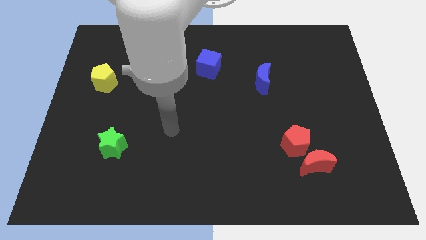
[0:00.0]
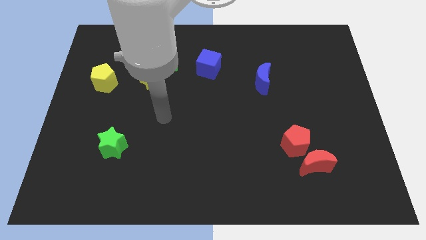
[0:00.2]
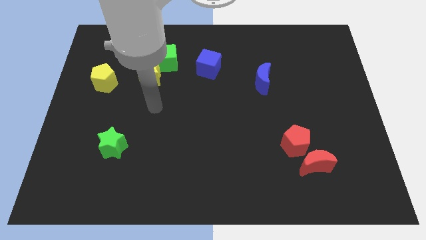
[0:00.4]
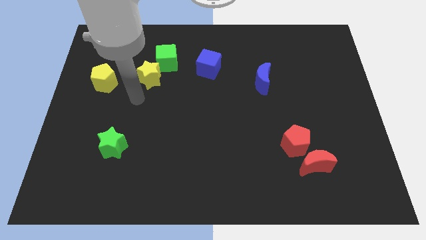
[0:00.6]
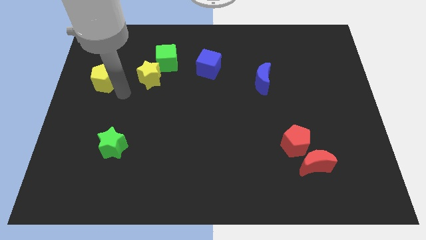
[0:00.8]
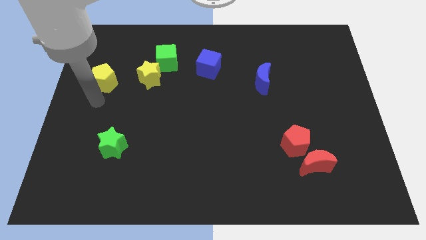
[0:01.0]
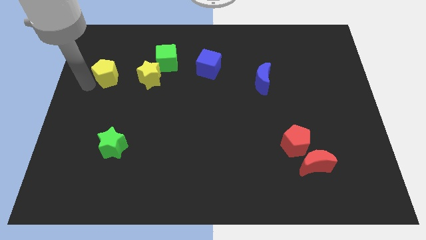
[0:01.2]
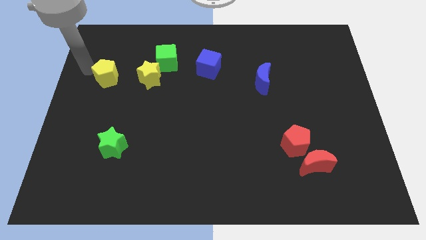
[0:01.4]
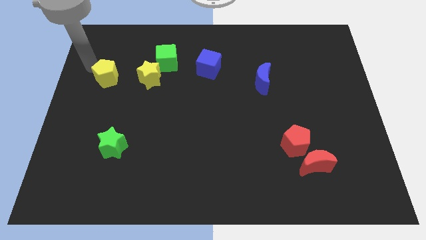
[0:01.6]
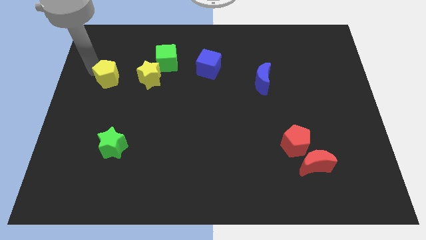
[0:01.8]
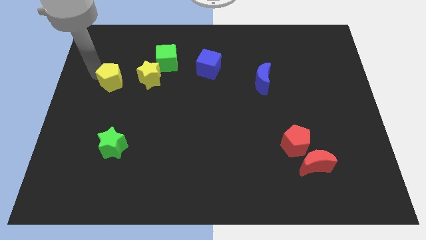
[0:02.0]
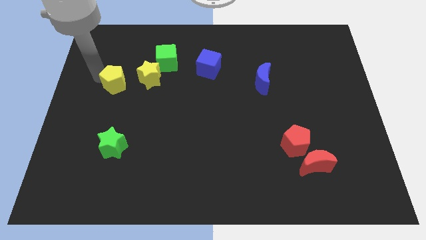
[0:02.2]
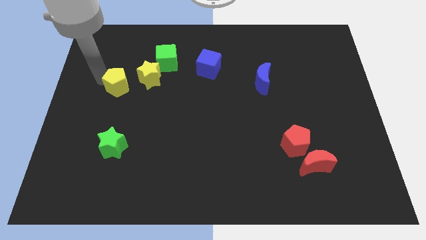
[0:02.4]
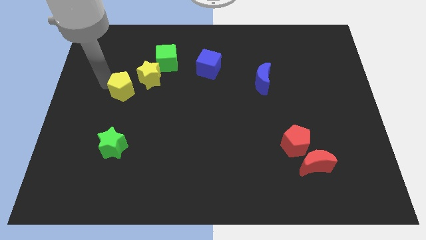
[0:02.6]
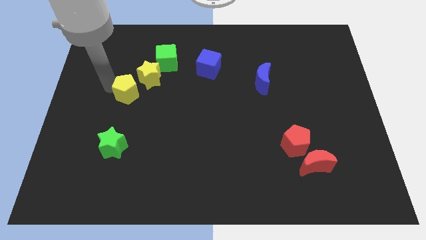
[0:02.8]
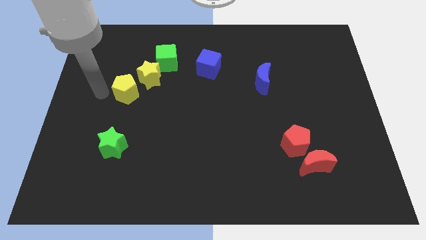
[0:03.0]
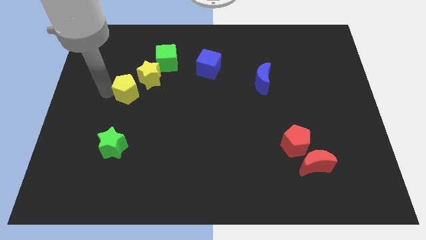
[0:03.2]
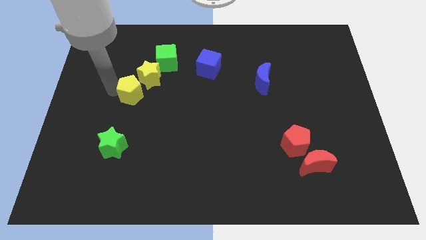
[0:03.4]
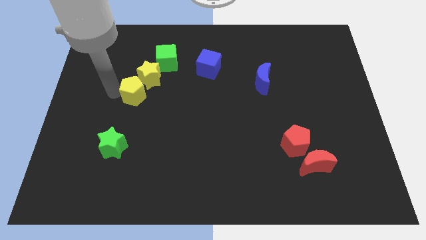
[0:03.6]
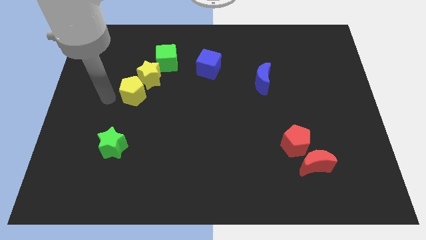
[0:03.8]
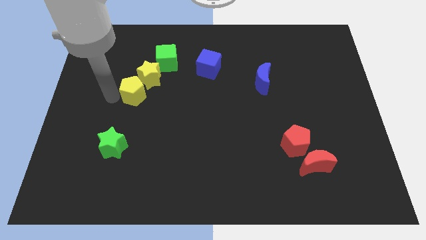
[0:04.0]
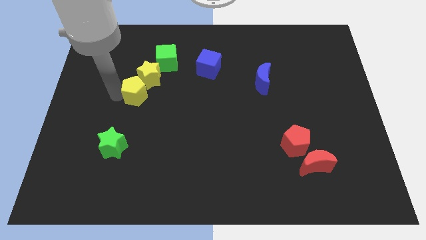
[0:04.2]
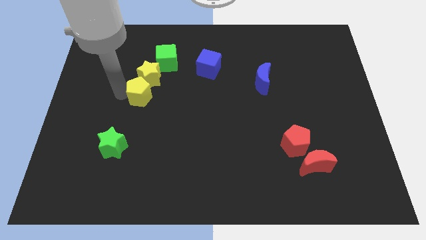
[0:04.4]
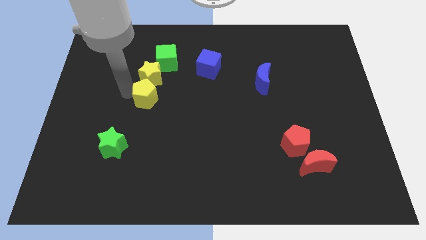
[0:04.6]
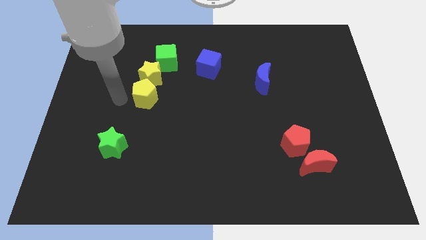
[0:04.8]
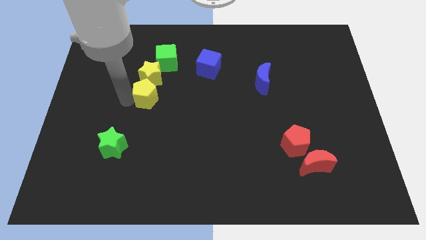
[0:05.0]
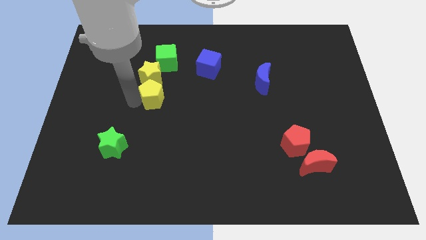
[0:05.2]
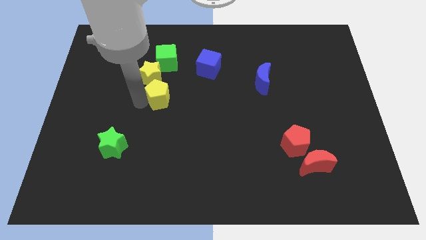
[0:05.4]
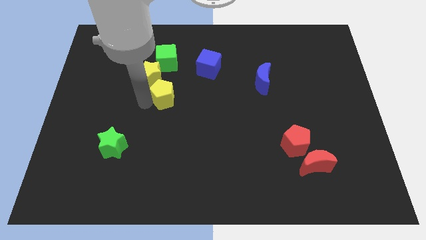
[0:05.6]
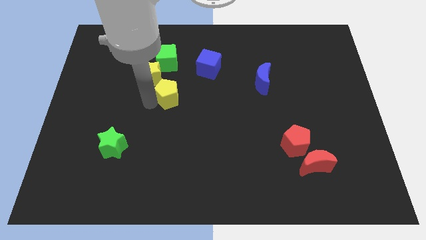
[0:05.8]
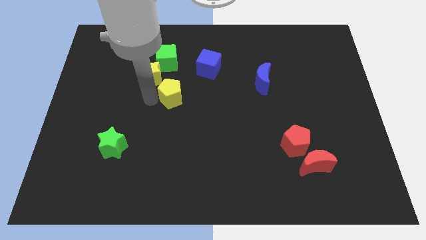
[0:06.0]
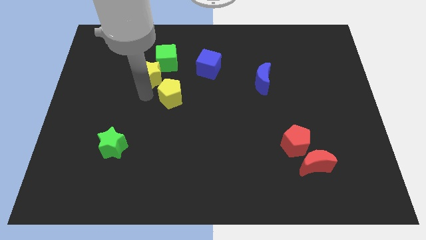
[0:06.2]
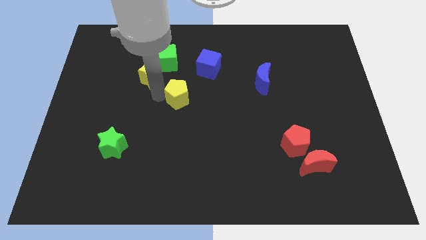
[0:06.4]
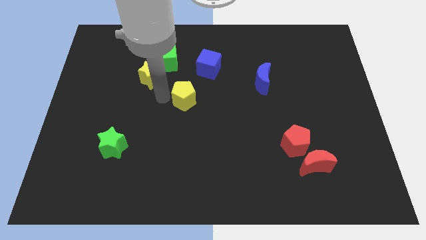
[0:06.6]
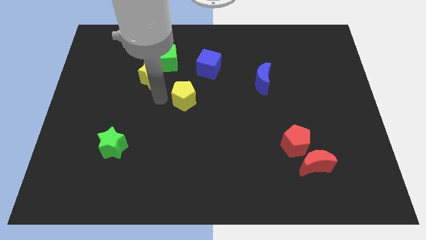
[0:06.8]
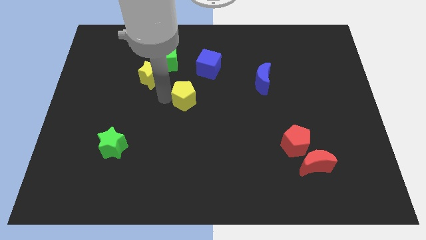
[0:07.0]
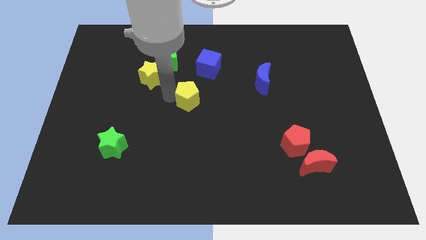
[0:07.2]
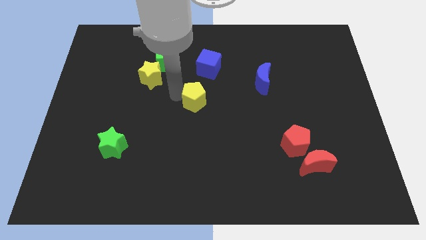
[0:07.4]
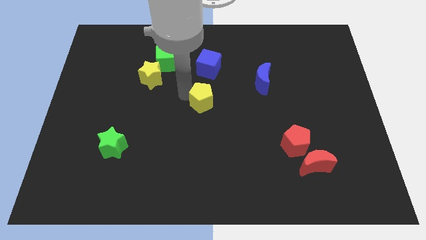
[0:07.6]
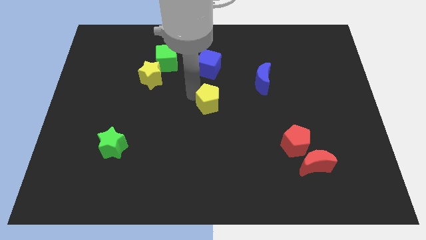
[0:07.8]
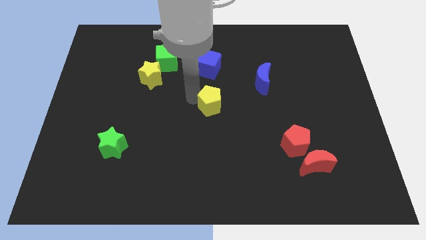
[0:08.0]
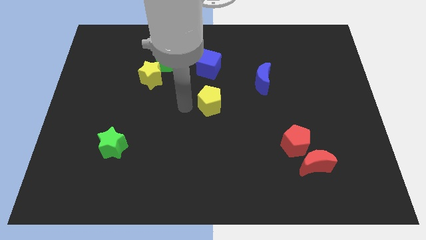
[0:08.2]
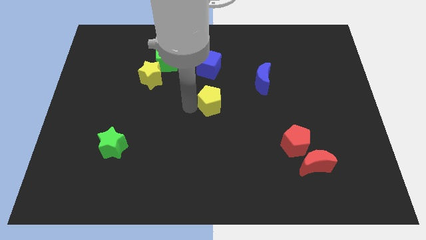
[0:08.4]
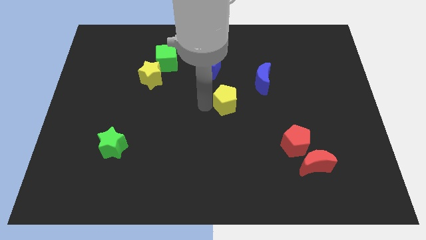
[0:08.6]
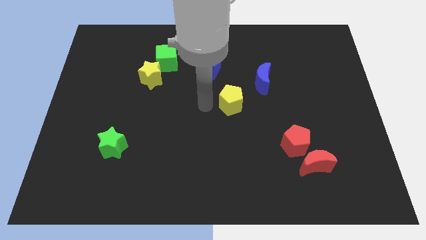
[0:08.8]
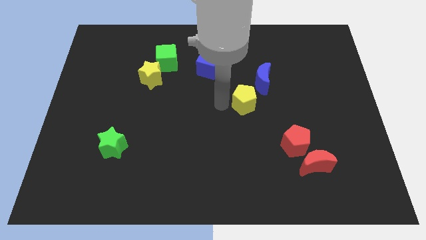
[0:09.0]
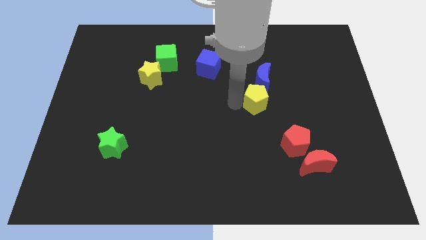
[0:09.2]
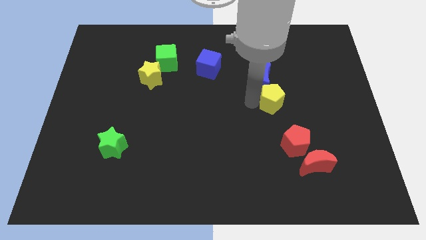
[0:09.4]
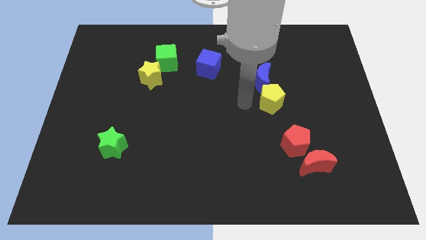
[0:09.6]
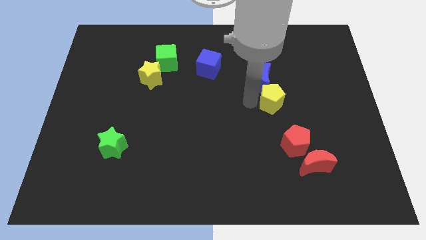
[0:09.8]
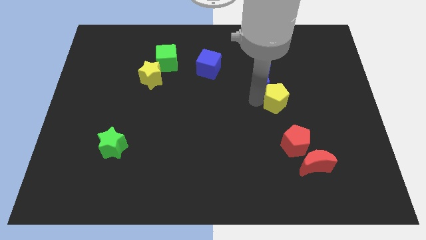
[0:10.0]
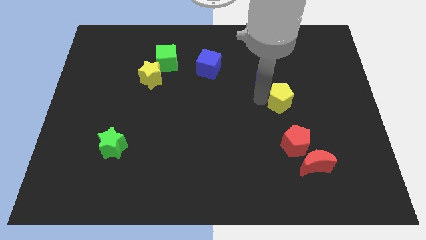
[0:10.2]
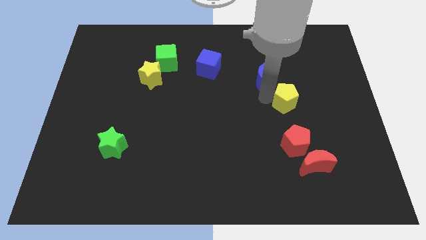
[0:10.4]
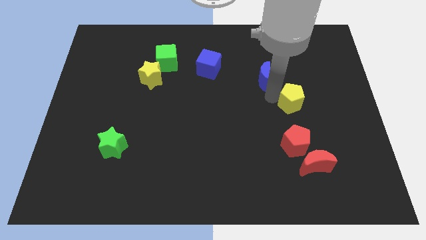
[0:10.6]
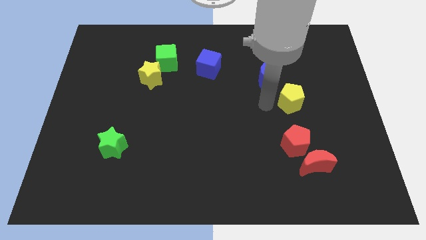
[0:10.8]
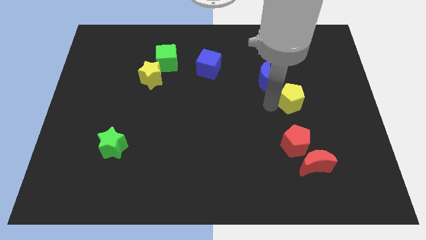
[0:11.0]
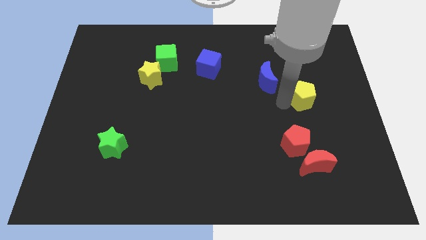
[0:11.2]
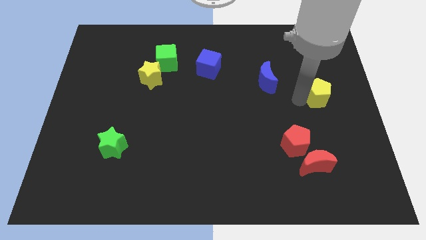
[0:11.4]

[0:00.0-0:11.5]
push the yellow pentagon to the center right

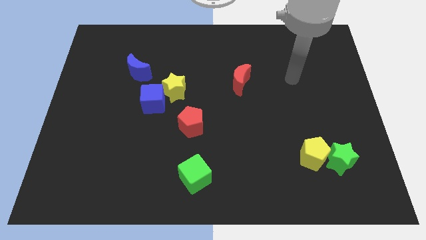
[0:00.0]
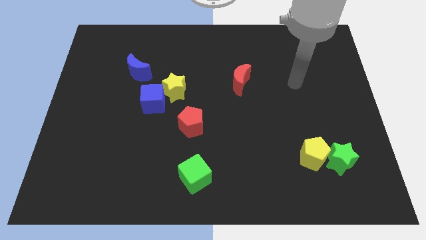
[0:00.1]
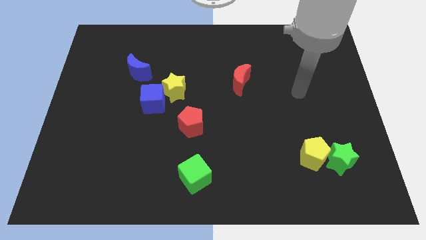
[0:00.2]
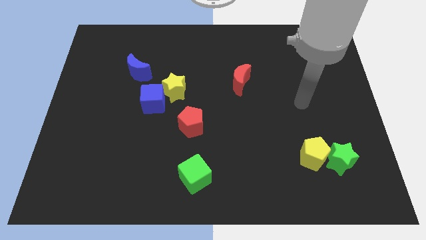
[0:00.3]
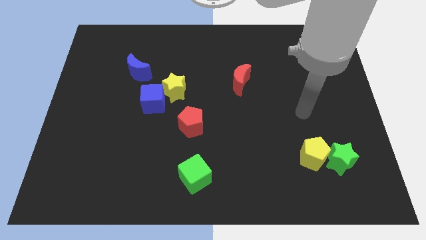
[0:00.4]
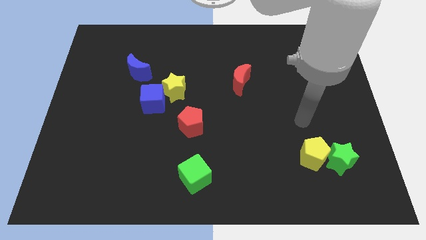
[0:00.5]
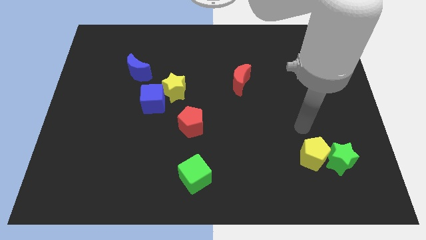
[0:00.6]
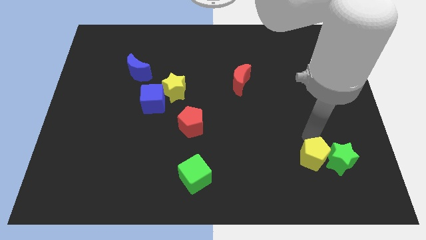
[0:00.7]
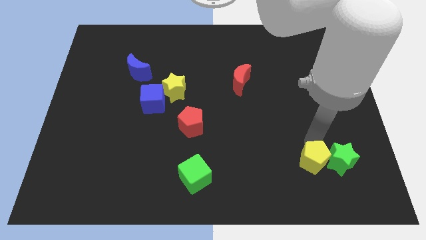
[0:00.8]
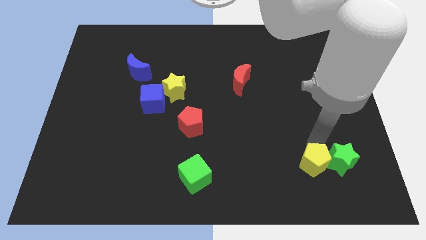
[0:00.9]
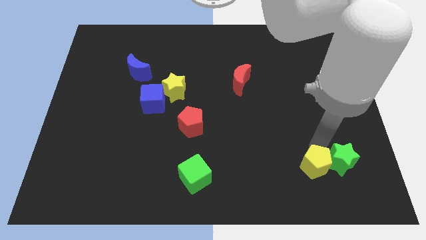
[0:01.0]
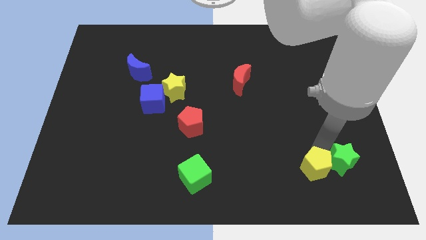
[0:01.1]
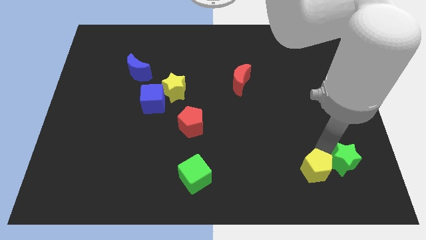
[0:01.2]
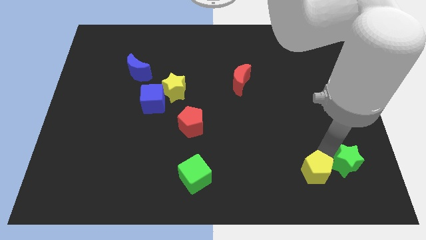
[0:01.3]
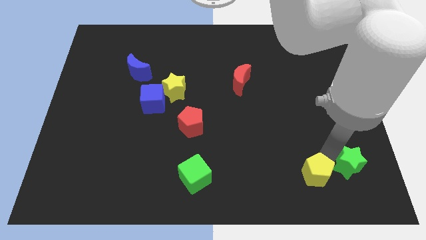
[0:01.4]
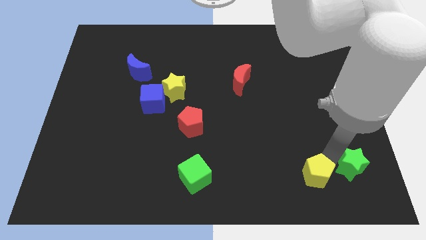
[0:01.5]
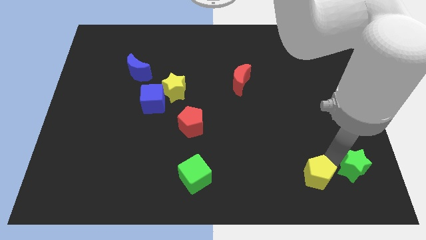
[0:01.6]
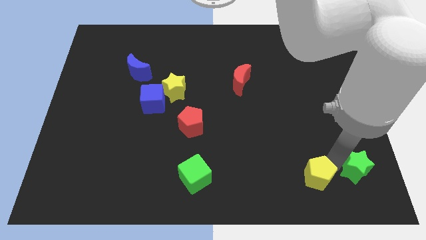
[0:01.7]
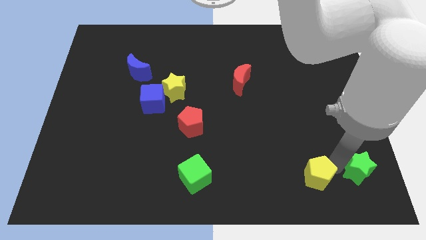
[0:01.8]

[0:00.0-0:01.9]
move the green star to the bottom right of the board
